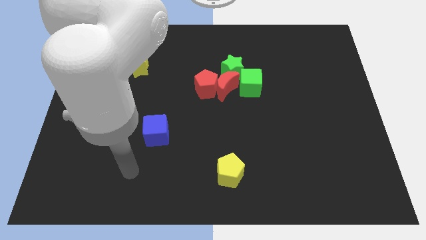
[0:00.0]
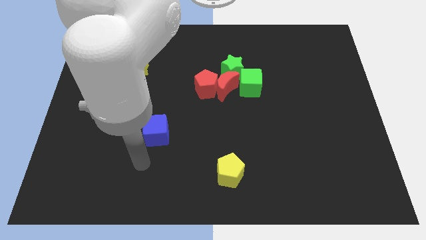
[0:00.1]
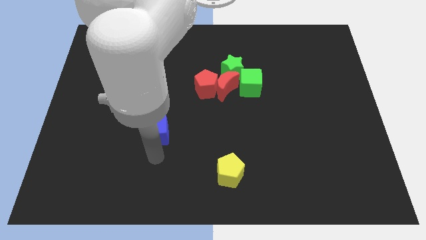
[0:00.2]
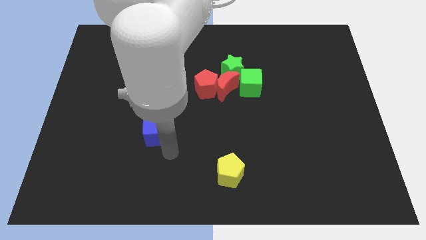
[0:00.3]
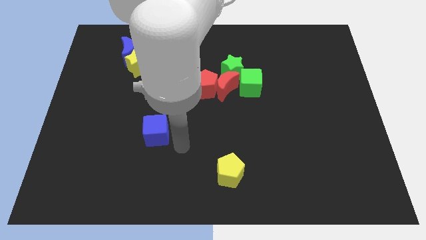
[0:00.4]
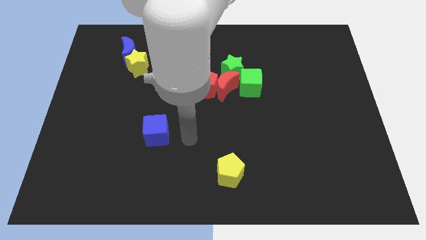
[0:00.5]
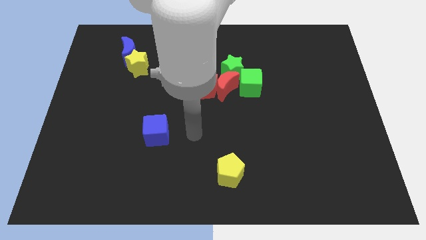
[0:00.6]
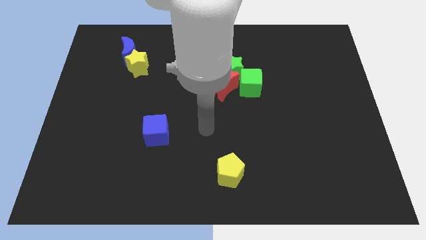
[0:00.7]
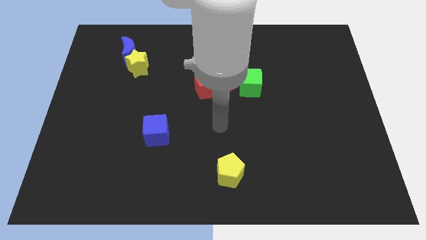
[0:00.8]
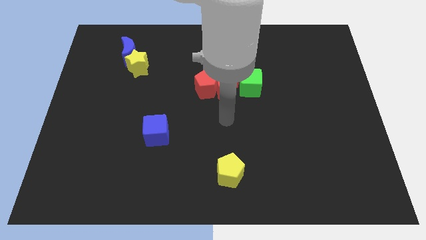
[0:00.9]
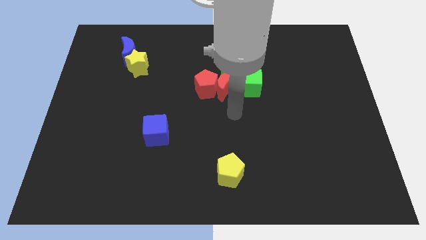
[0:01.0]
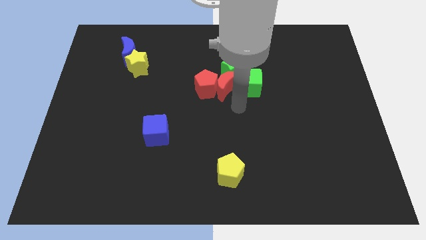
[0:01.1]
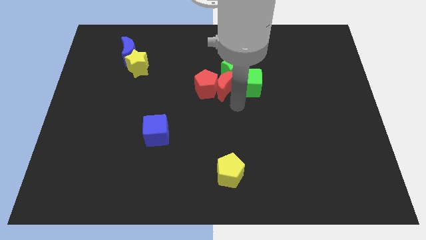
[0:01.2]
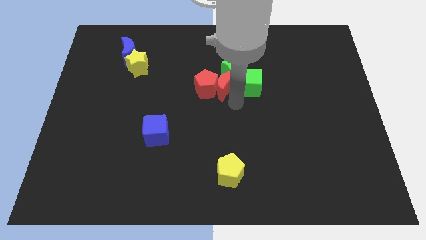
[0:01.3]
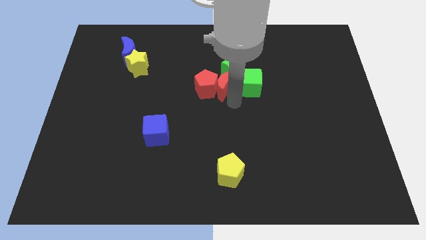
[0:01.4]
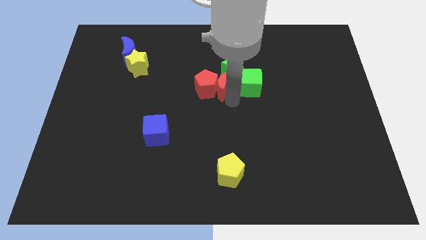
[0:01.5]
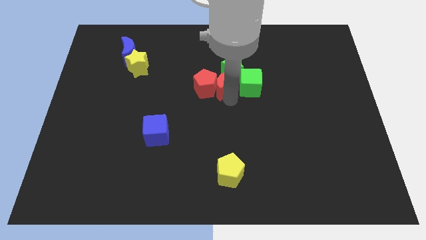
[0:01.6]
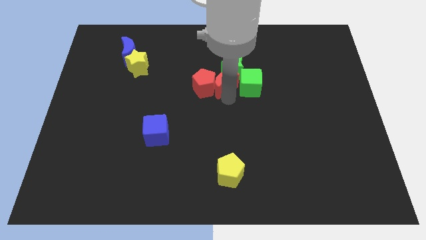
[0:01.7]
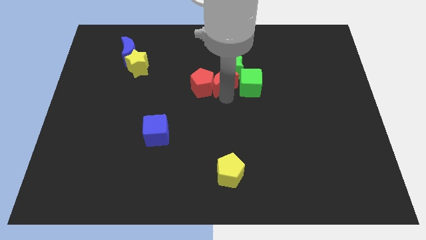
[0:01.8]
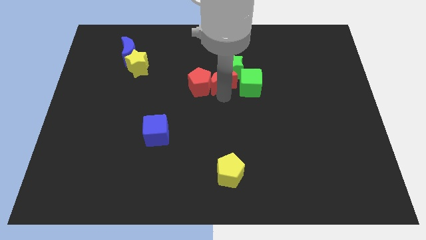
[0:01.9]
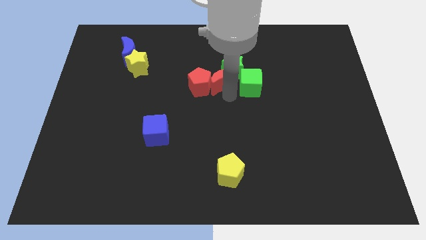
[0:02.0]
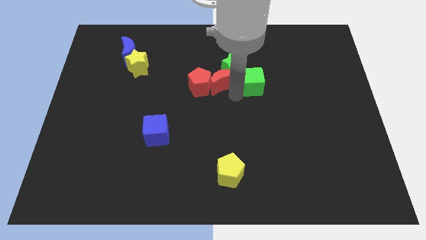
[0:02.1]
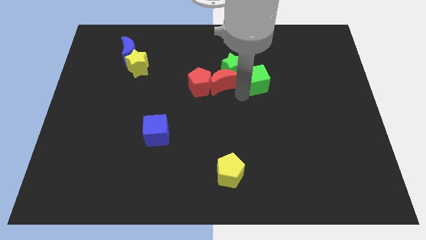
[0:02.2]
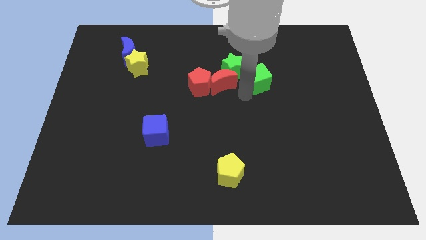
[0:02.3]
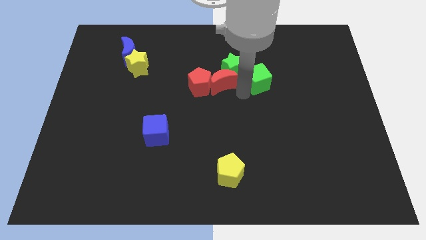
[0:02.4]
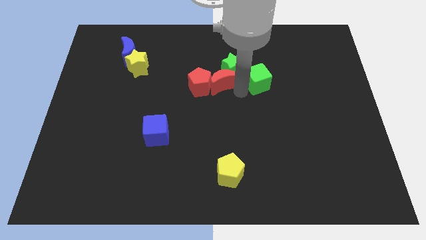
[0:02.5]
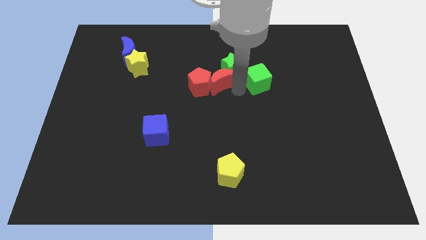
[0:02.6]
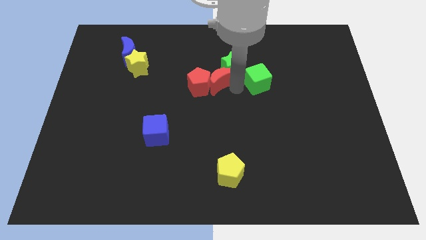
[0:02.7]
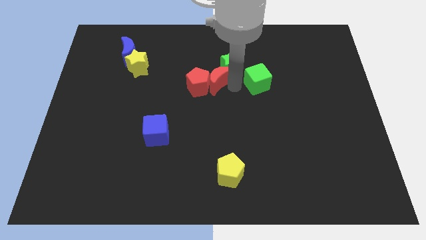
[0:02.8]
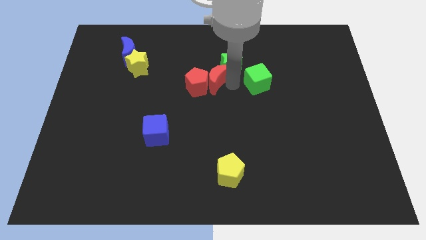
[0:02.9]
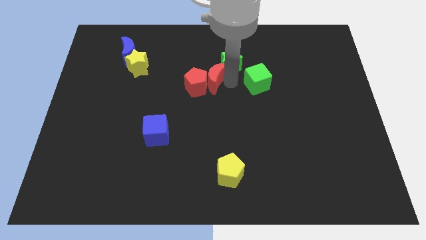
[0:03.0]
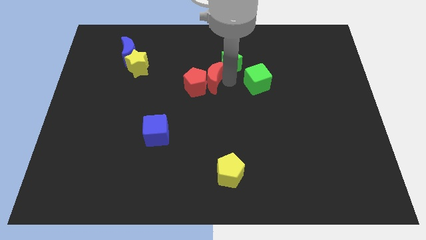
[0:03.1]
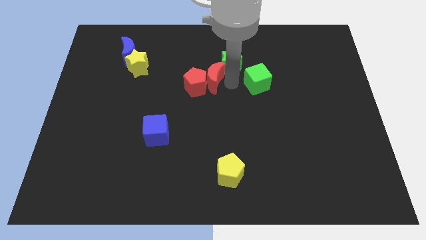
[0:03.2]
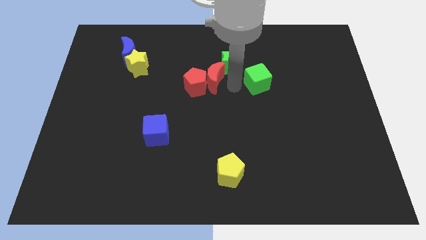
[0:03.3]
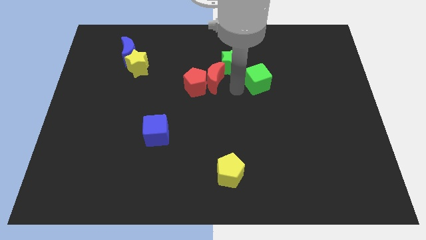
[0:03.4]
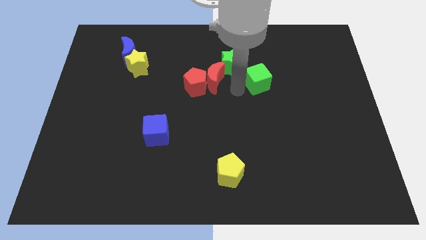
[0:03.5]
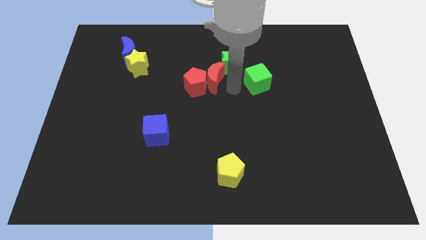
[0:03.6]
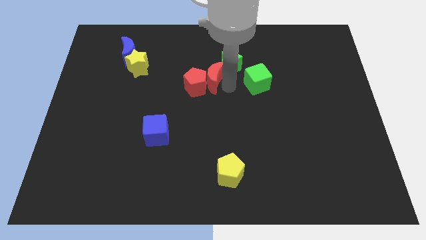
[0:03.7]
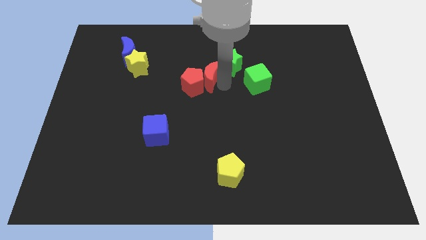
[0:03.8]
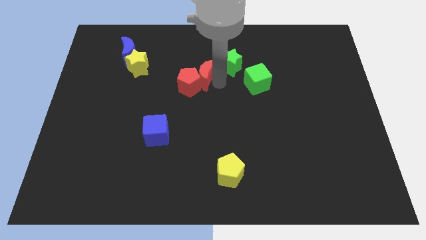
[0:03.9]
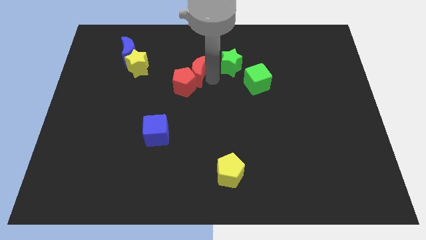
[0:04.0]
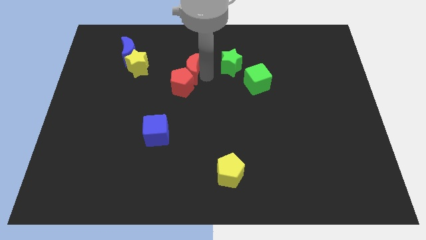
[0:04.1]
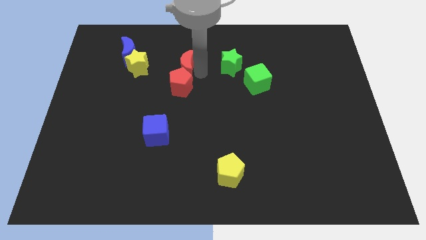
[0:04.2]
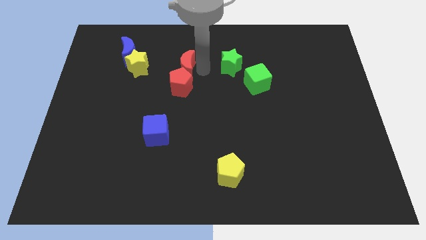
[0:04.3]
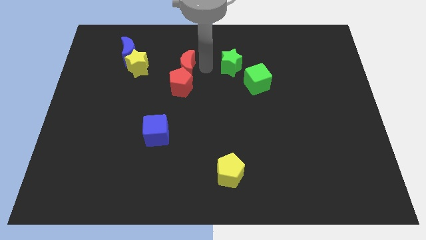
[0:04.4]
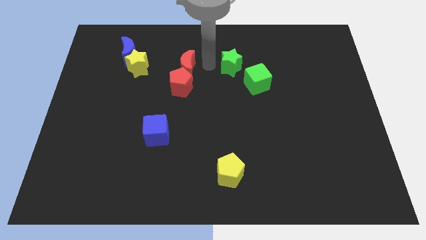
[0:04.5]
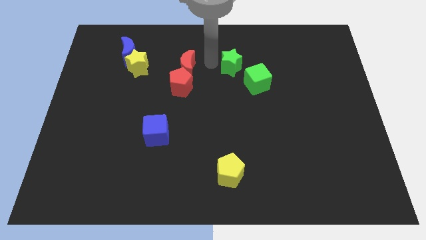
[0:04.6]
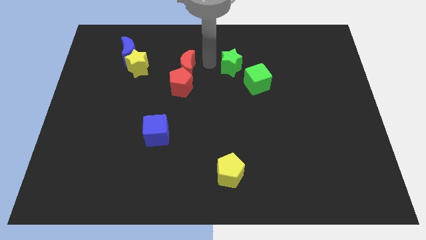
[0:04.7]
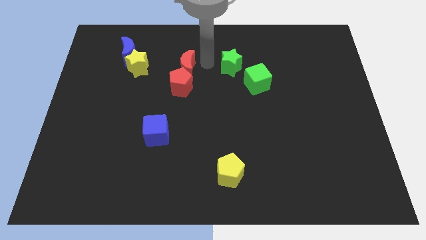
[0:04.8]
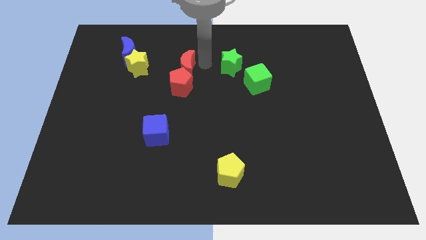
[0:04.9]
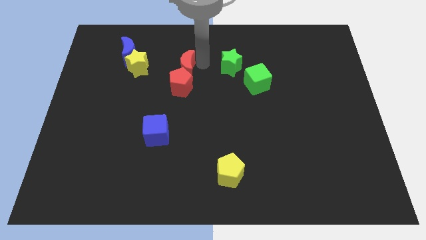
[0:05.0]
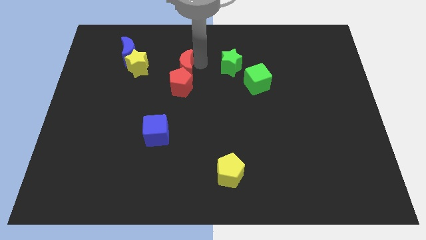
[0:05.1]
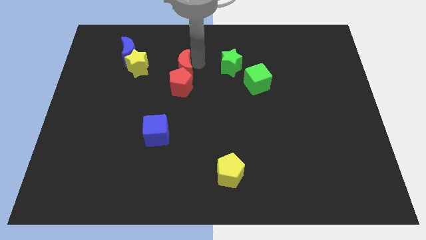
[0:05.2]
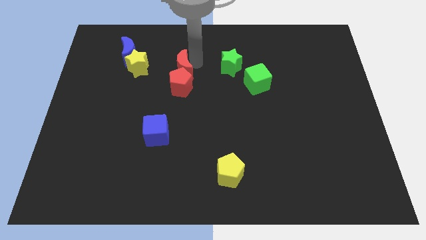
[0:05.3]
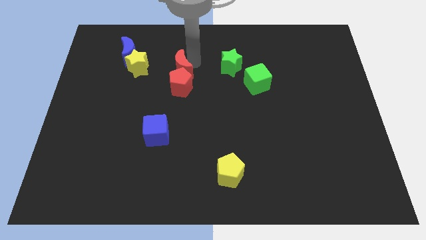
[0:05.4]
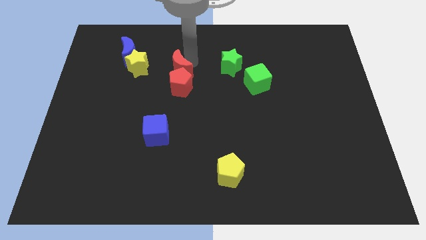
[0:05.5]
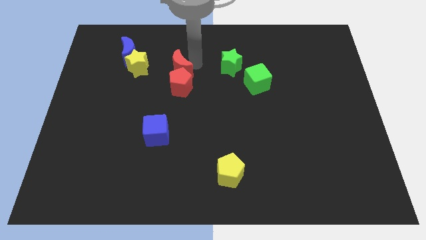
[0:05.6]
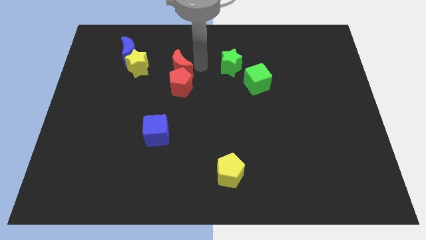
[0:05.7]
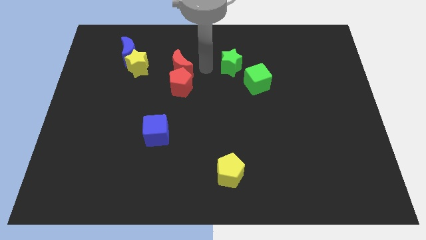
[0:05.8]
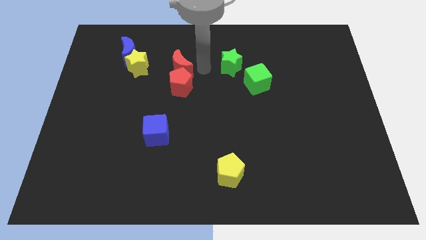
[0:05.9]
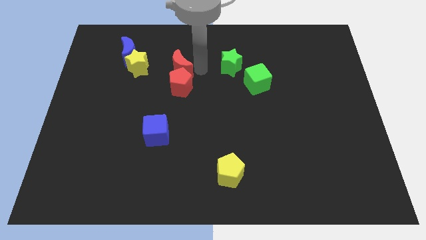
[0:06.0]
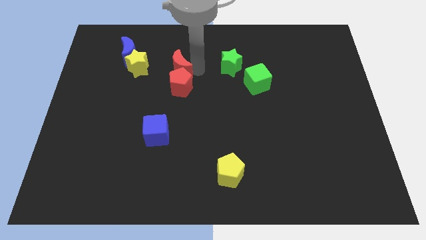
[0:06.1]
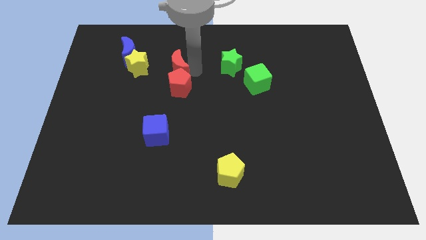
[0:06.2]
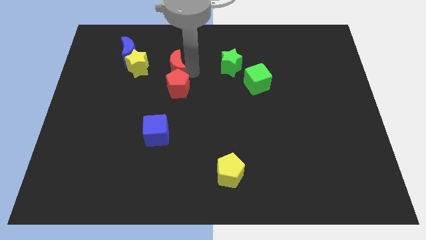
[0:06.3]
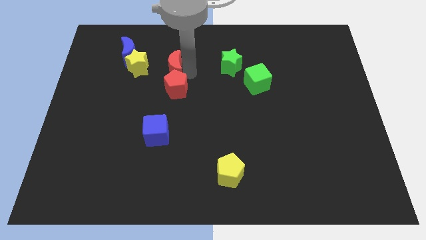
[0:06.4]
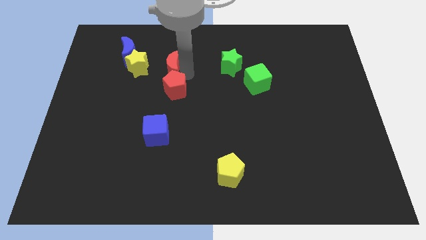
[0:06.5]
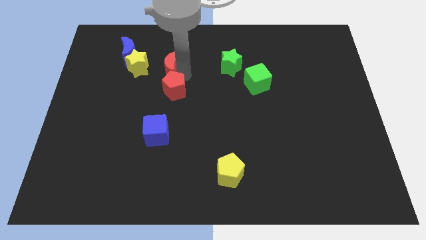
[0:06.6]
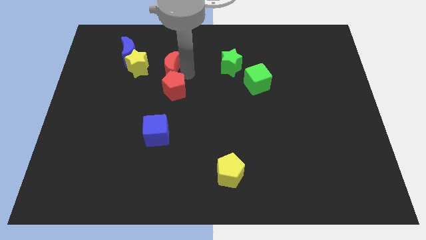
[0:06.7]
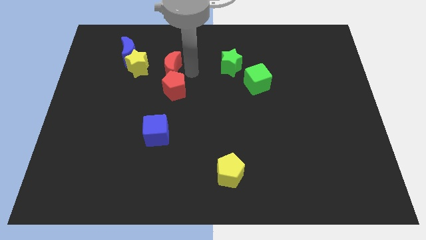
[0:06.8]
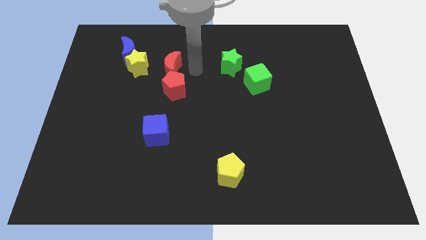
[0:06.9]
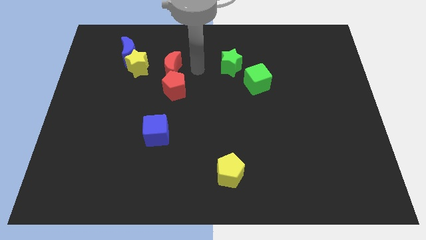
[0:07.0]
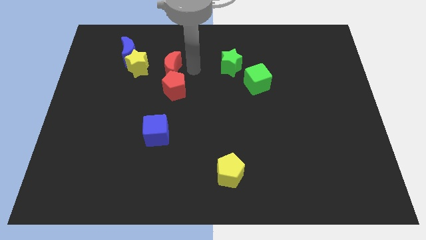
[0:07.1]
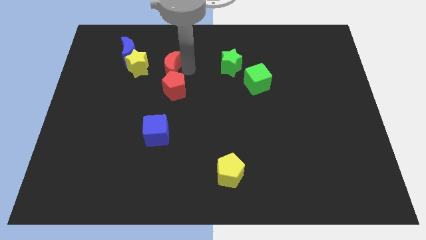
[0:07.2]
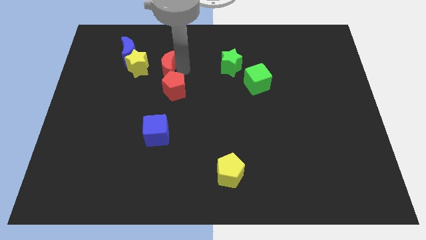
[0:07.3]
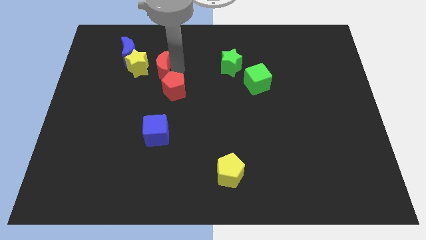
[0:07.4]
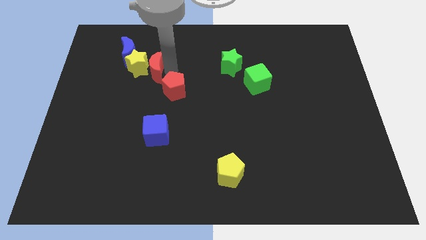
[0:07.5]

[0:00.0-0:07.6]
slide the red moon towards the yellow star
